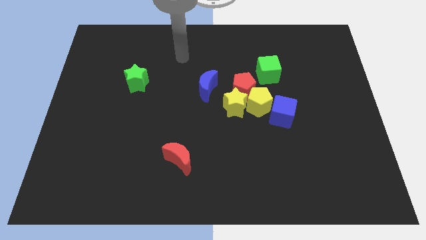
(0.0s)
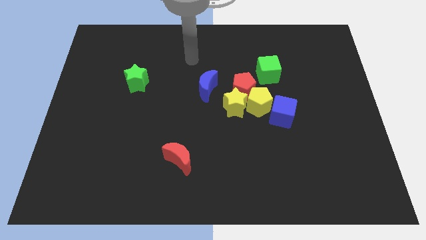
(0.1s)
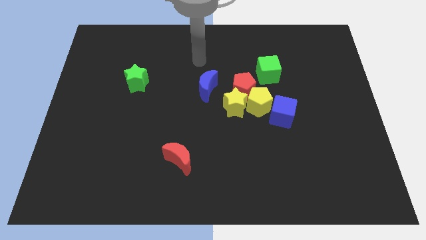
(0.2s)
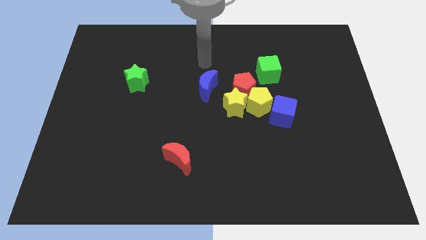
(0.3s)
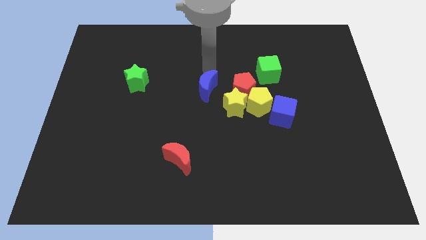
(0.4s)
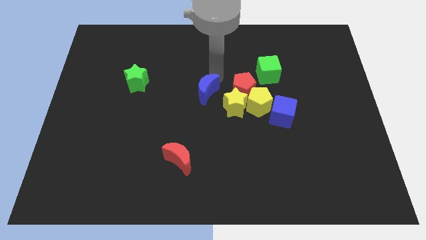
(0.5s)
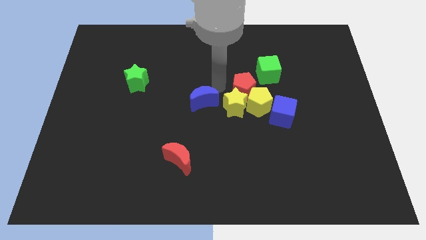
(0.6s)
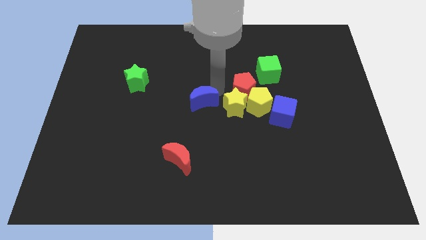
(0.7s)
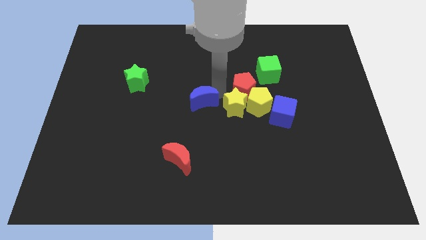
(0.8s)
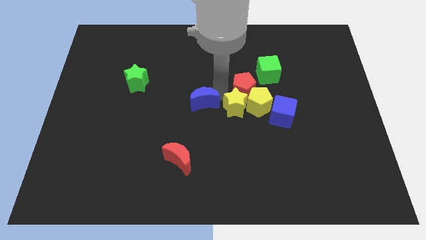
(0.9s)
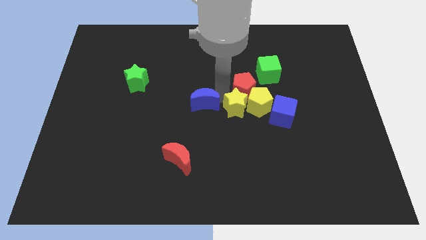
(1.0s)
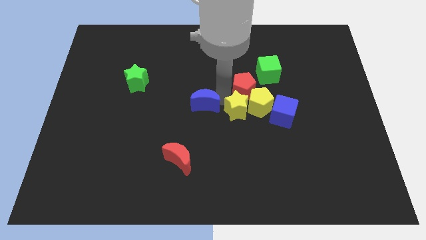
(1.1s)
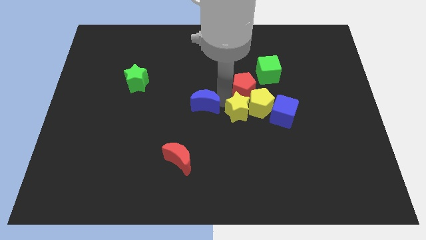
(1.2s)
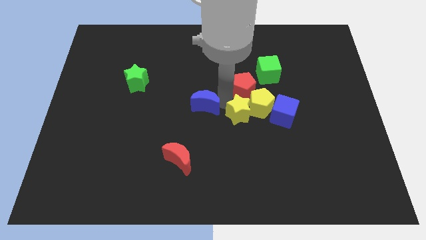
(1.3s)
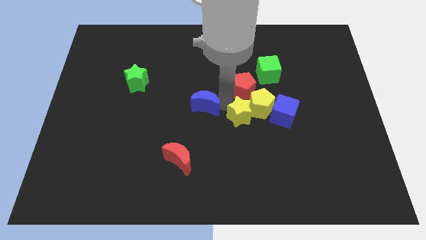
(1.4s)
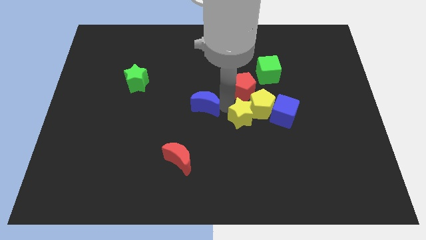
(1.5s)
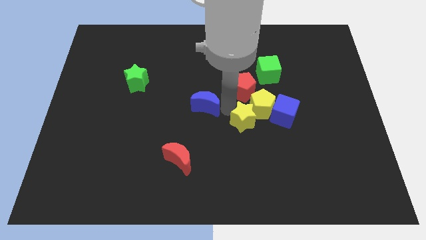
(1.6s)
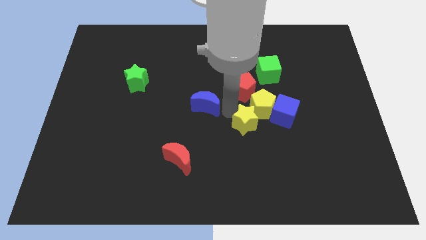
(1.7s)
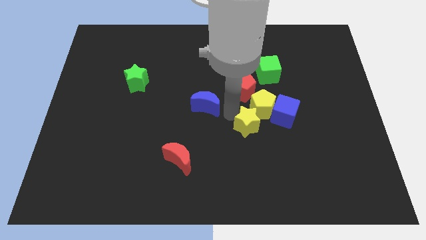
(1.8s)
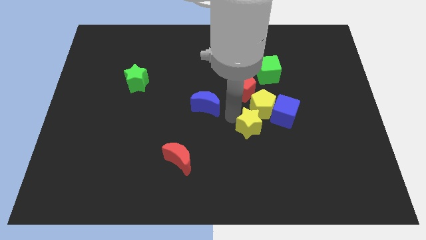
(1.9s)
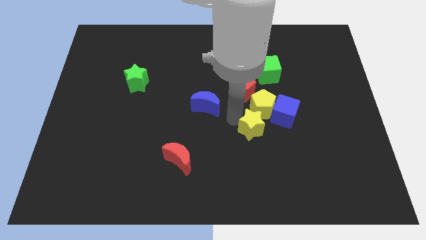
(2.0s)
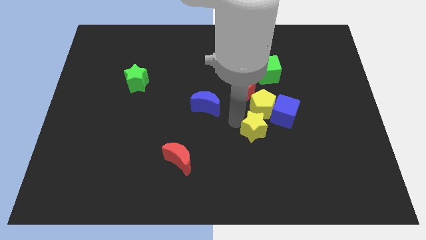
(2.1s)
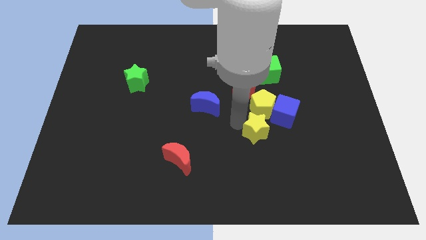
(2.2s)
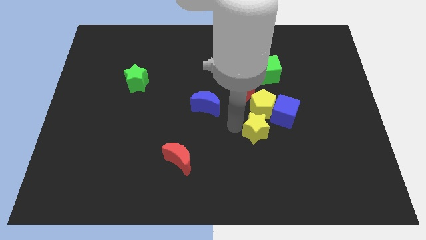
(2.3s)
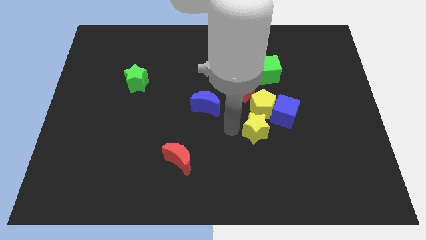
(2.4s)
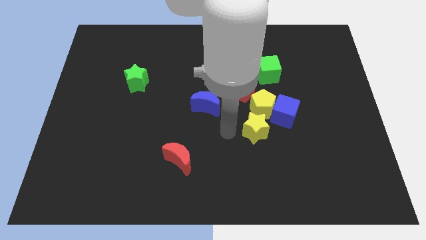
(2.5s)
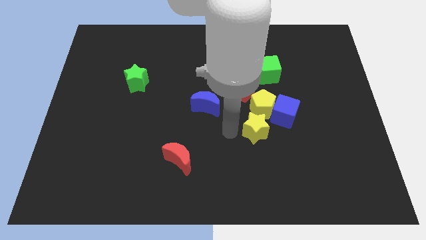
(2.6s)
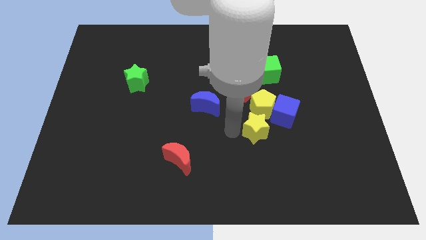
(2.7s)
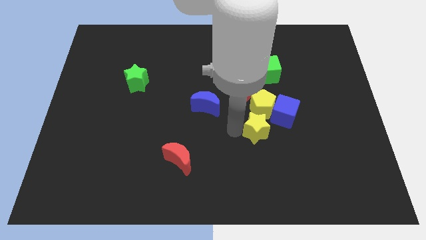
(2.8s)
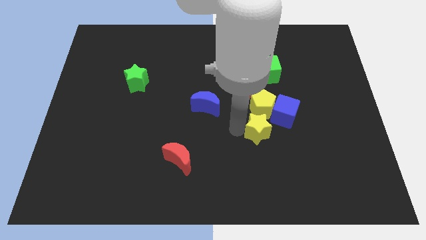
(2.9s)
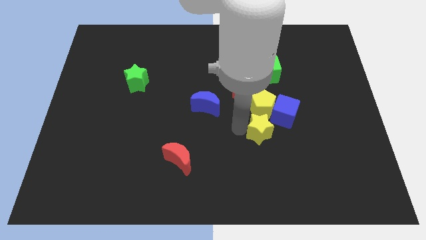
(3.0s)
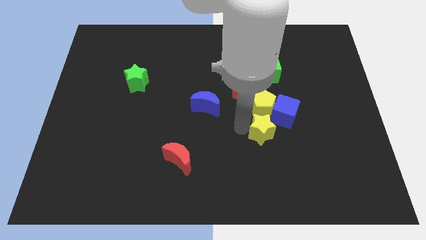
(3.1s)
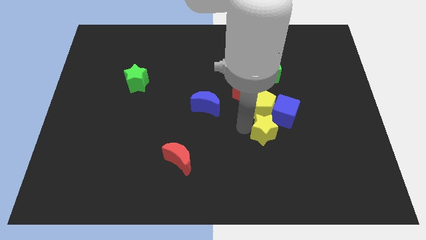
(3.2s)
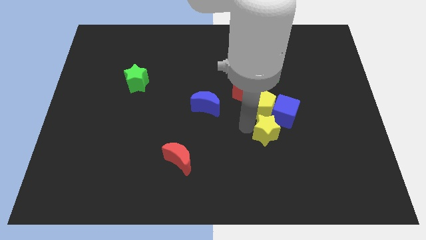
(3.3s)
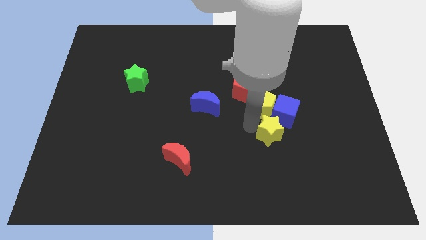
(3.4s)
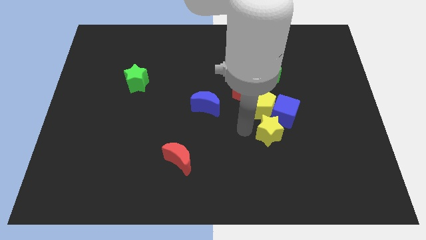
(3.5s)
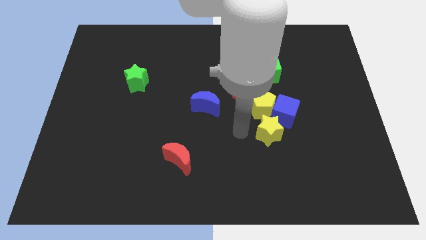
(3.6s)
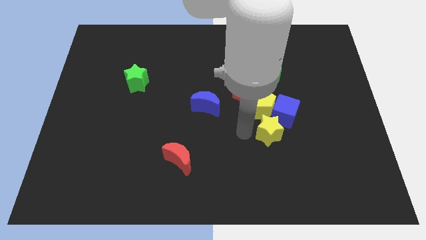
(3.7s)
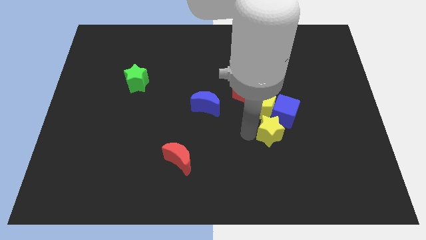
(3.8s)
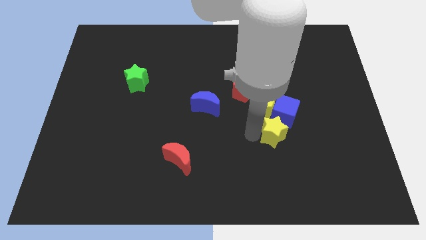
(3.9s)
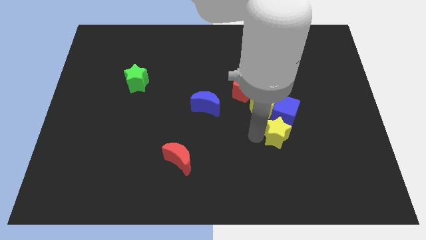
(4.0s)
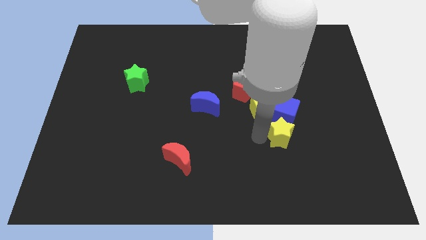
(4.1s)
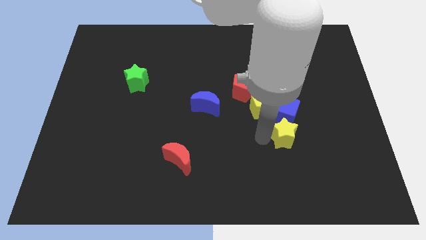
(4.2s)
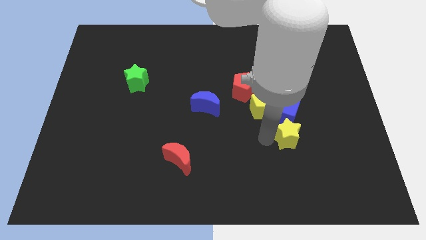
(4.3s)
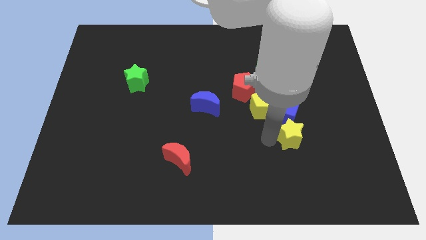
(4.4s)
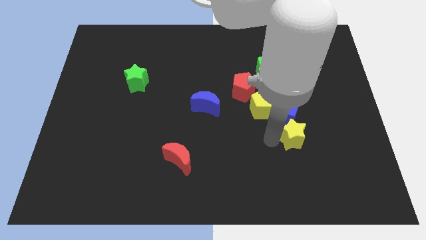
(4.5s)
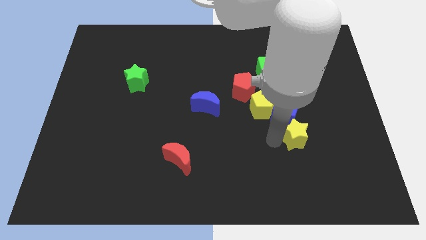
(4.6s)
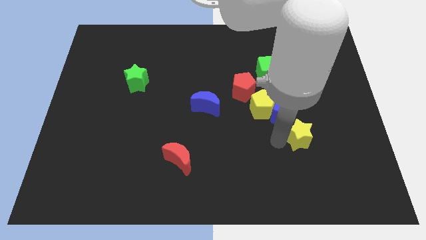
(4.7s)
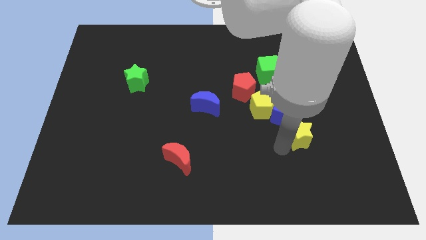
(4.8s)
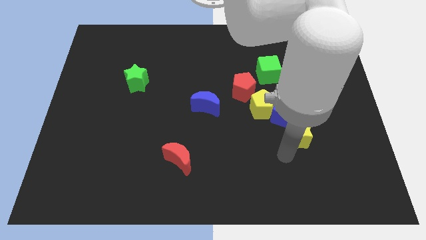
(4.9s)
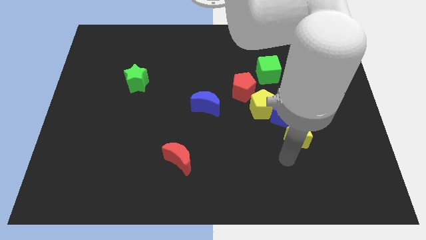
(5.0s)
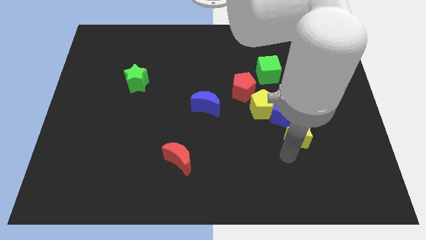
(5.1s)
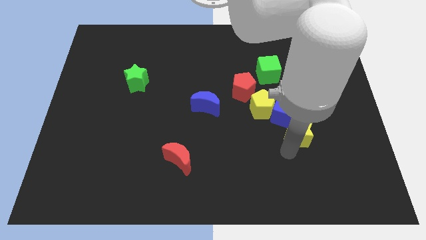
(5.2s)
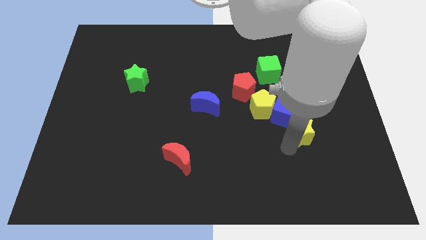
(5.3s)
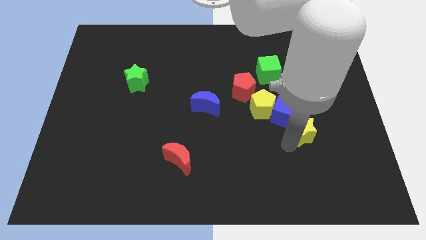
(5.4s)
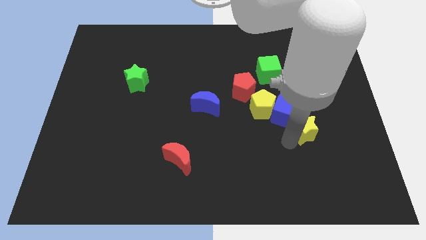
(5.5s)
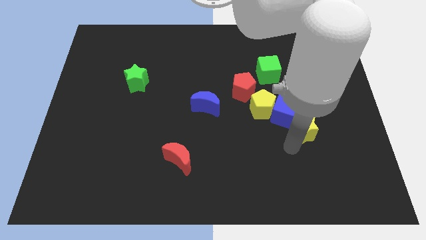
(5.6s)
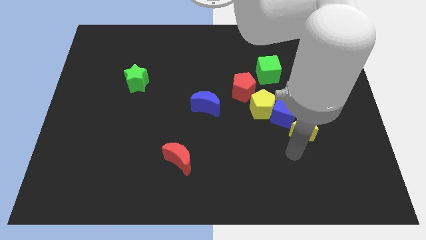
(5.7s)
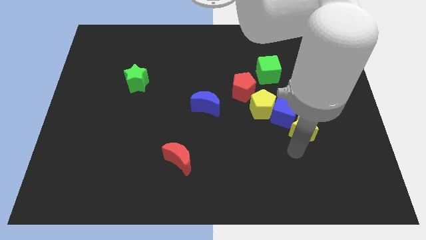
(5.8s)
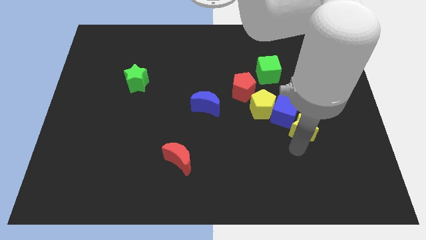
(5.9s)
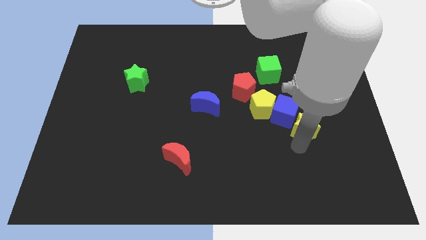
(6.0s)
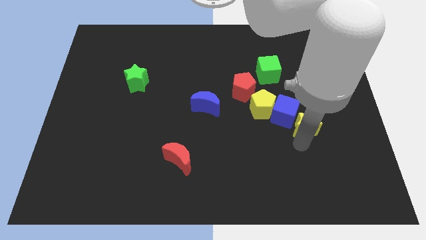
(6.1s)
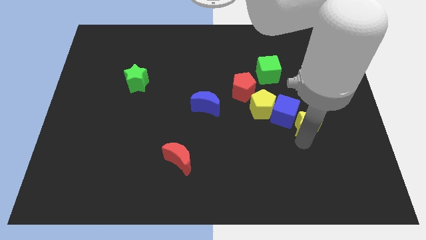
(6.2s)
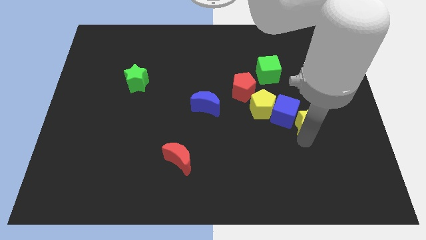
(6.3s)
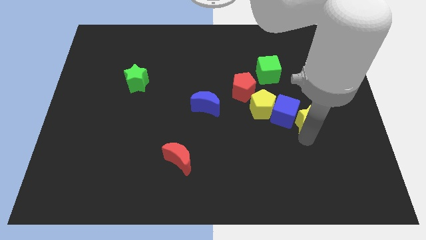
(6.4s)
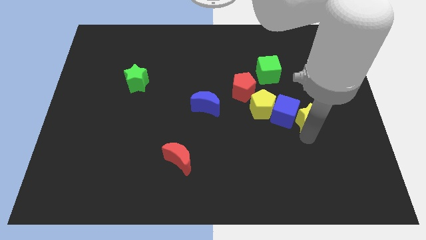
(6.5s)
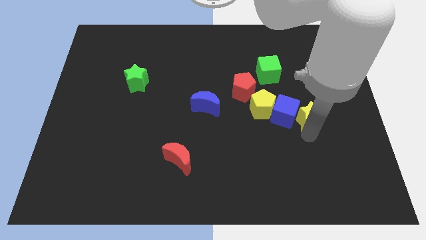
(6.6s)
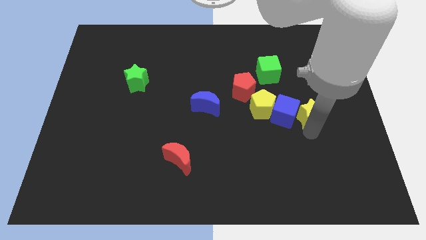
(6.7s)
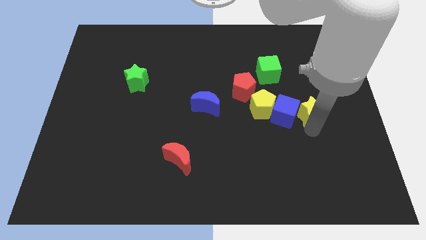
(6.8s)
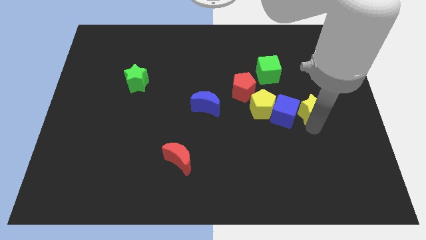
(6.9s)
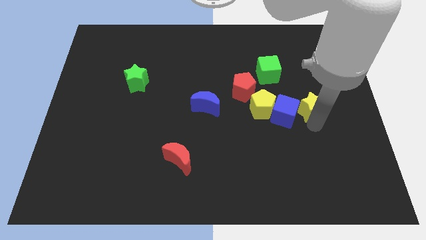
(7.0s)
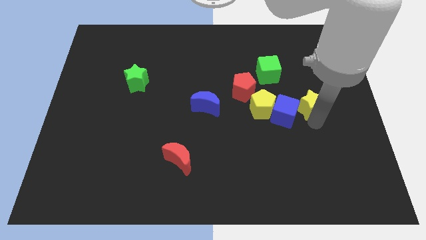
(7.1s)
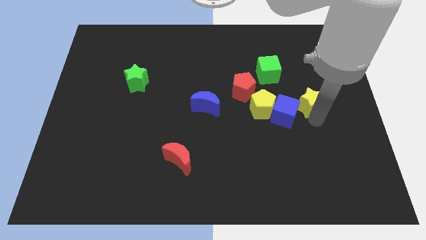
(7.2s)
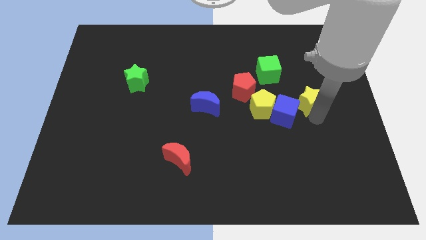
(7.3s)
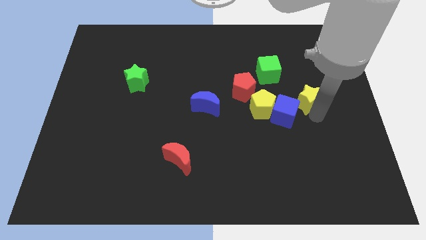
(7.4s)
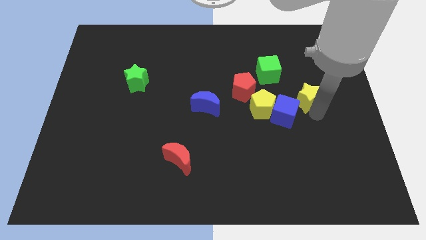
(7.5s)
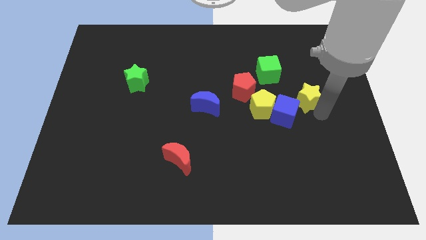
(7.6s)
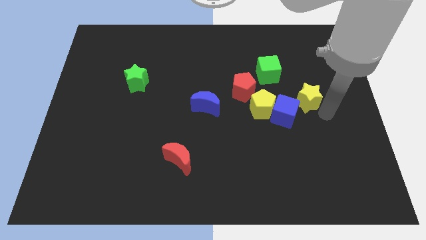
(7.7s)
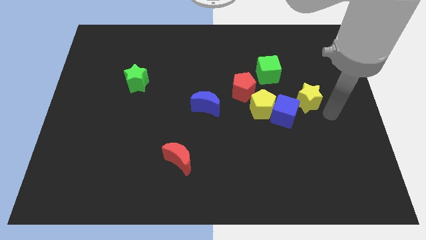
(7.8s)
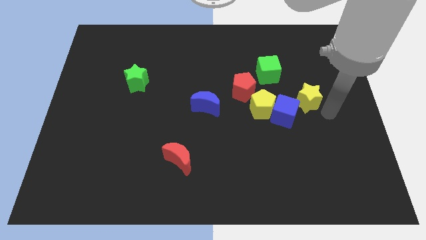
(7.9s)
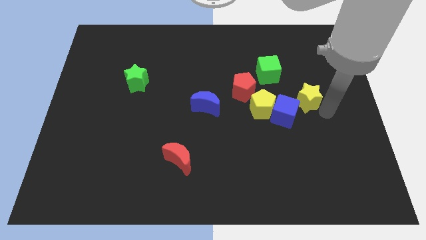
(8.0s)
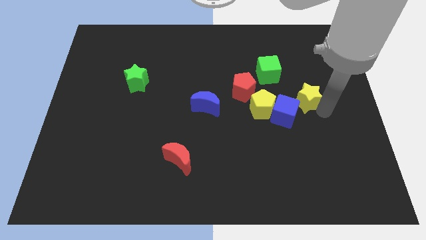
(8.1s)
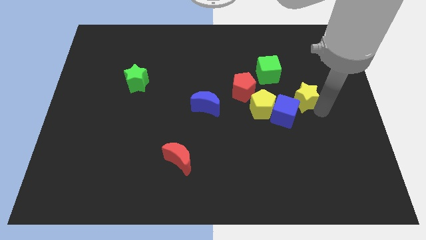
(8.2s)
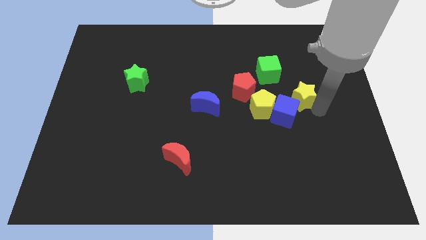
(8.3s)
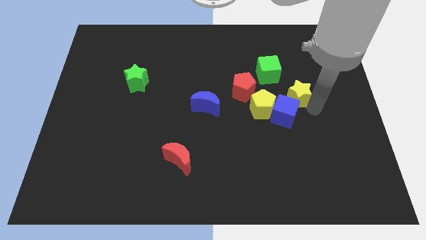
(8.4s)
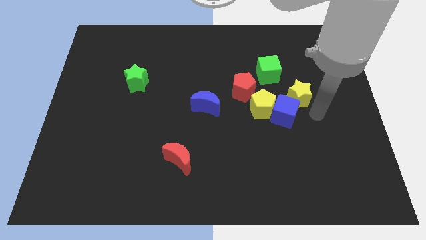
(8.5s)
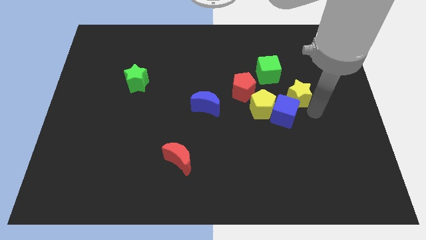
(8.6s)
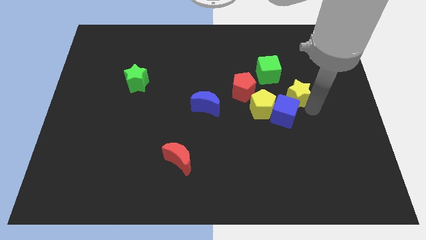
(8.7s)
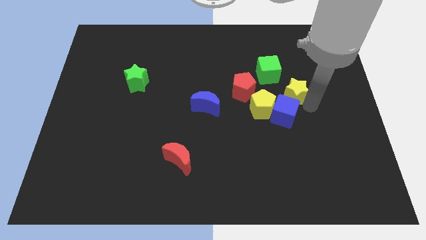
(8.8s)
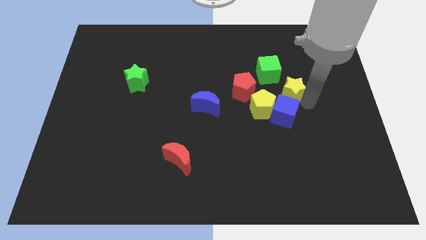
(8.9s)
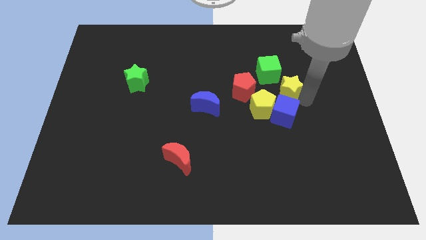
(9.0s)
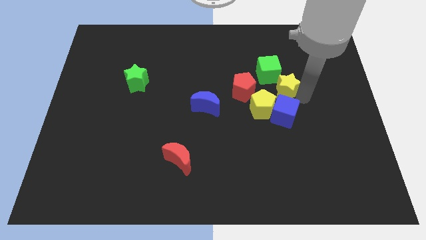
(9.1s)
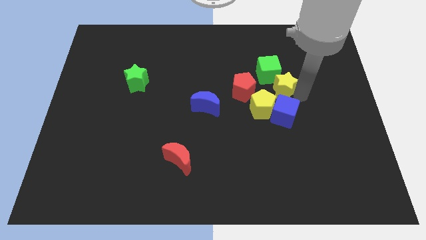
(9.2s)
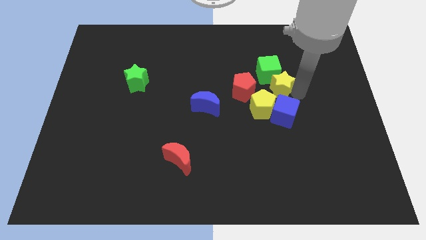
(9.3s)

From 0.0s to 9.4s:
slide the yellow star towards the green cube
